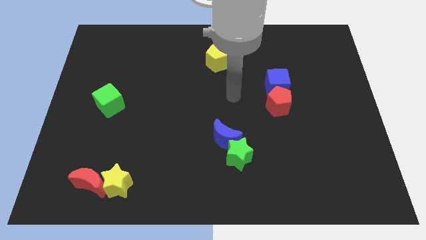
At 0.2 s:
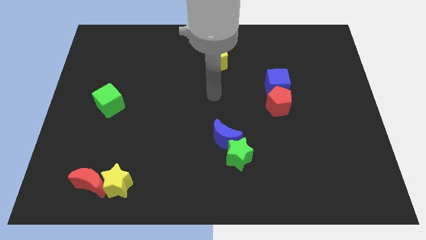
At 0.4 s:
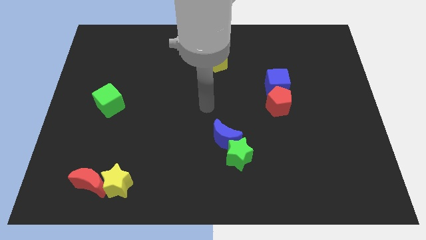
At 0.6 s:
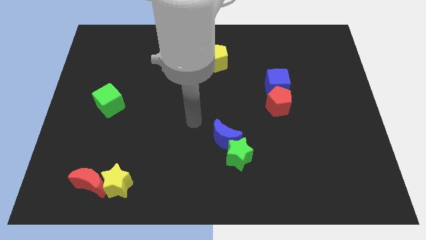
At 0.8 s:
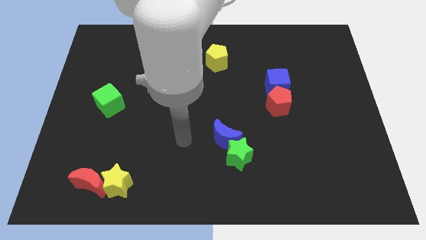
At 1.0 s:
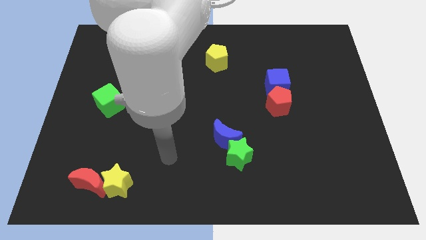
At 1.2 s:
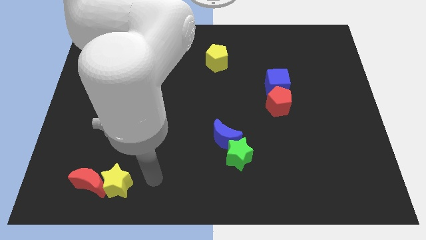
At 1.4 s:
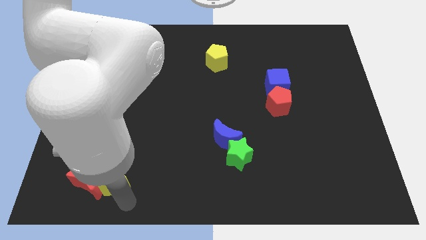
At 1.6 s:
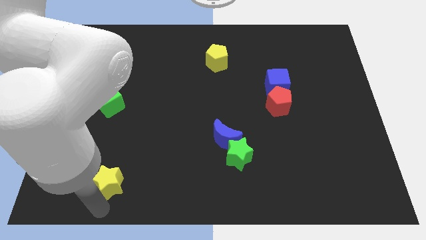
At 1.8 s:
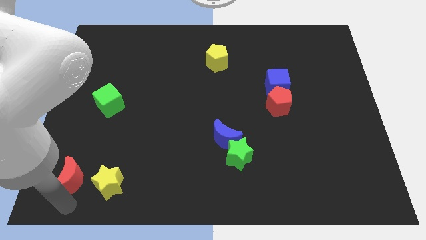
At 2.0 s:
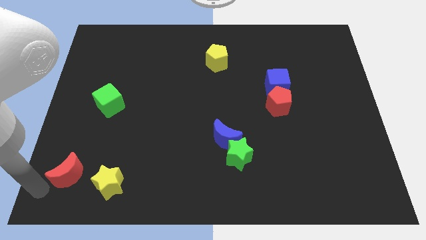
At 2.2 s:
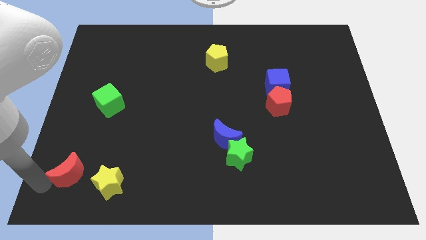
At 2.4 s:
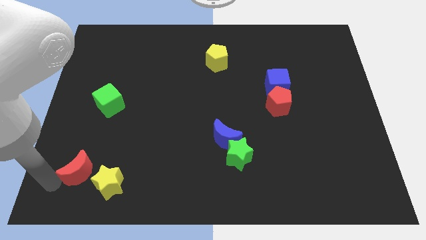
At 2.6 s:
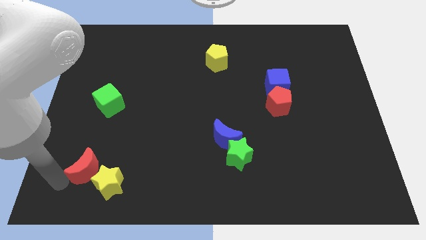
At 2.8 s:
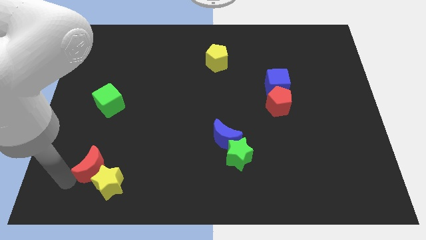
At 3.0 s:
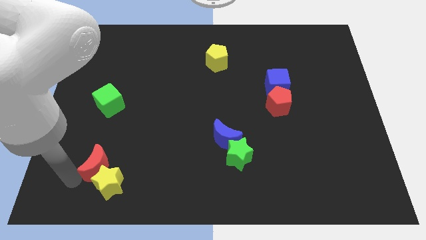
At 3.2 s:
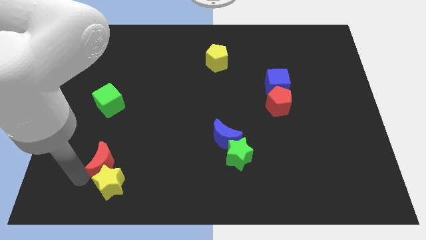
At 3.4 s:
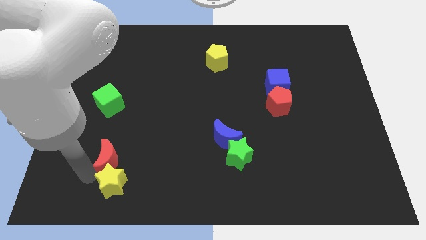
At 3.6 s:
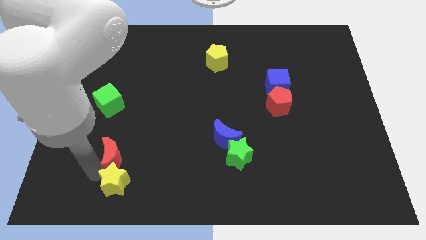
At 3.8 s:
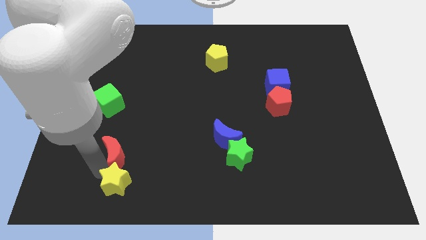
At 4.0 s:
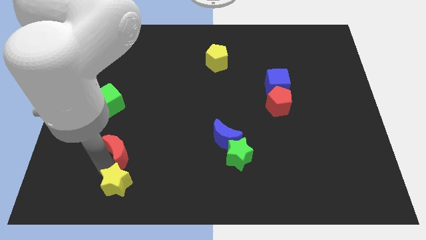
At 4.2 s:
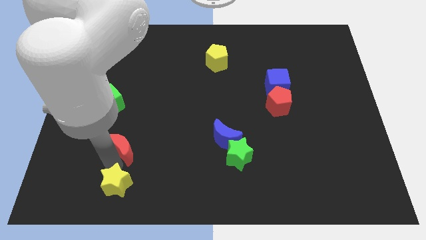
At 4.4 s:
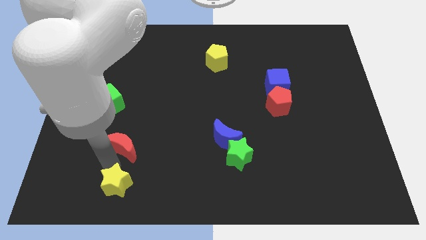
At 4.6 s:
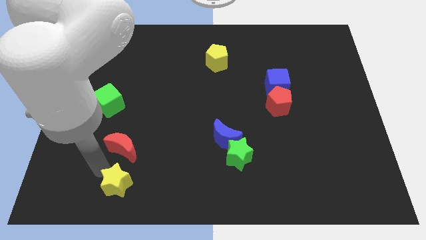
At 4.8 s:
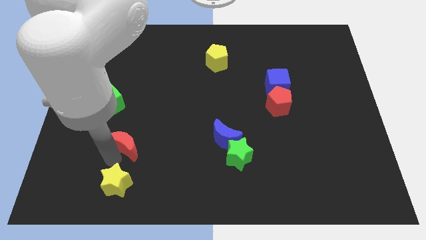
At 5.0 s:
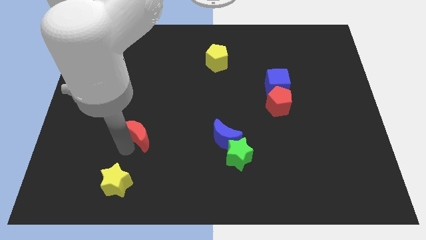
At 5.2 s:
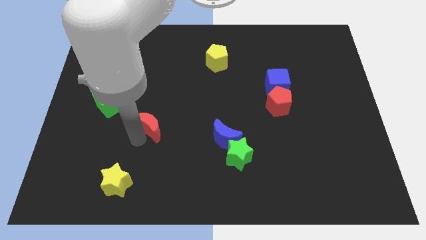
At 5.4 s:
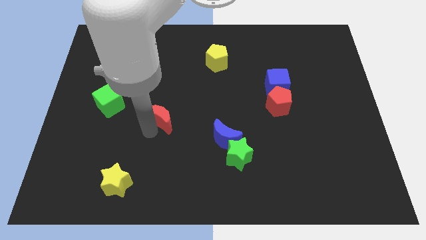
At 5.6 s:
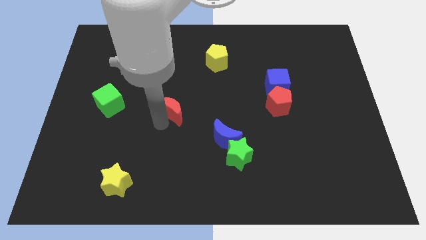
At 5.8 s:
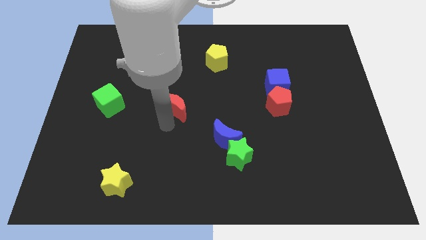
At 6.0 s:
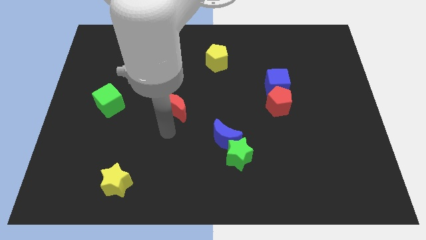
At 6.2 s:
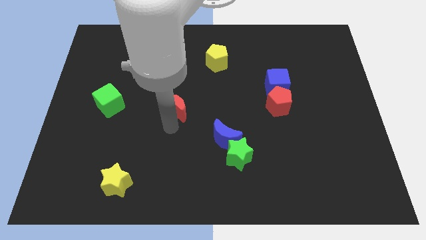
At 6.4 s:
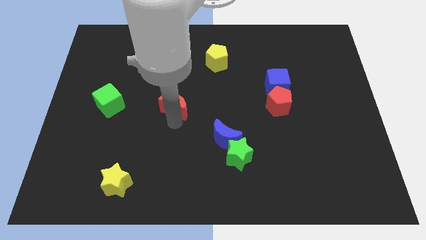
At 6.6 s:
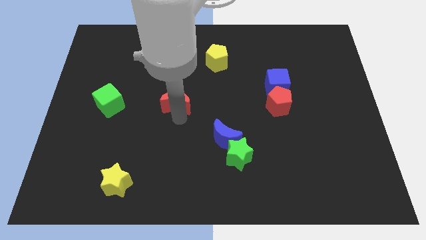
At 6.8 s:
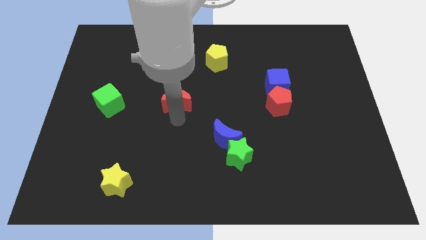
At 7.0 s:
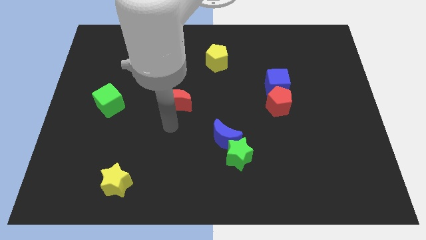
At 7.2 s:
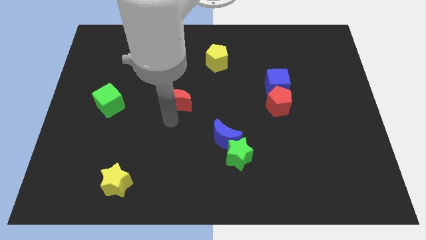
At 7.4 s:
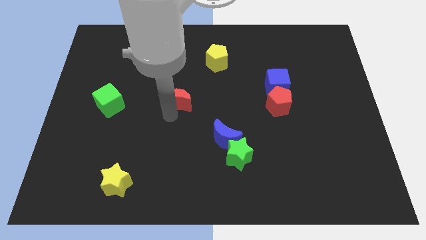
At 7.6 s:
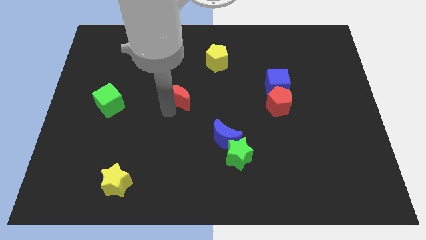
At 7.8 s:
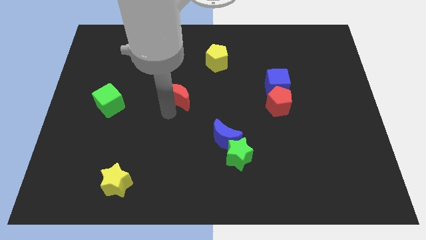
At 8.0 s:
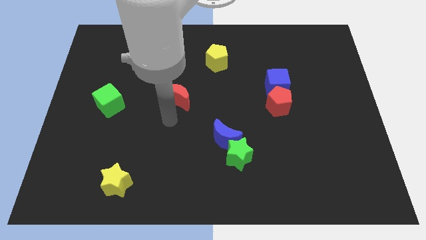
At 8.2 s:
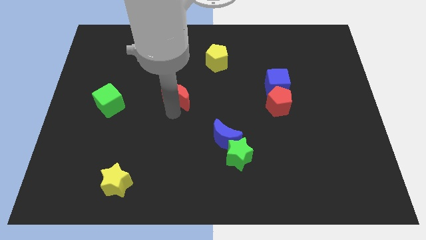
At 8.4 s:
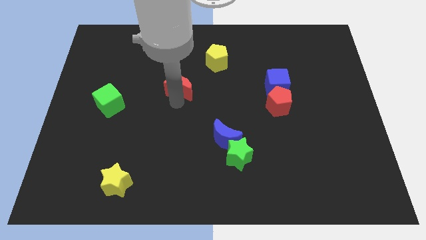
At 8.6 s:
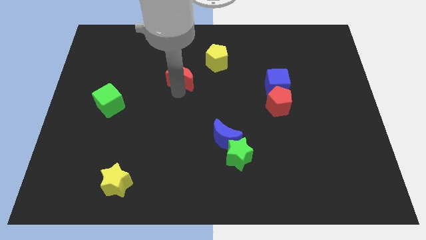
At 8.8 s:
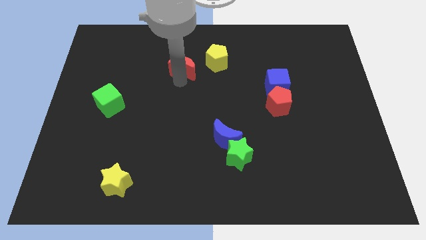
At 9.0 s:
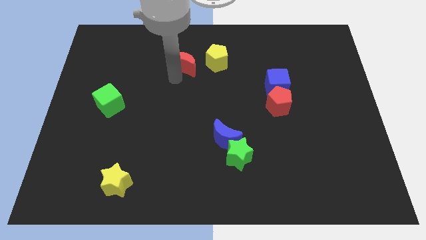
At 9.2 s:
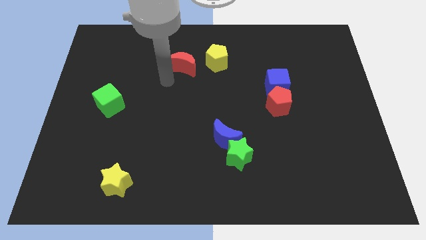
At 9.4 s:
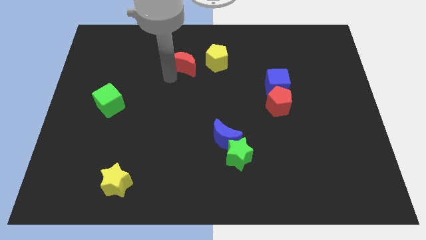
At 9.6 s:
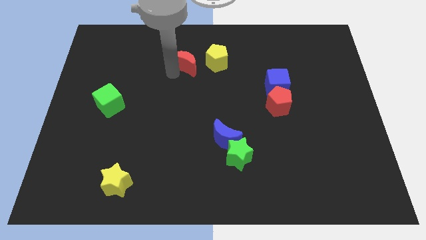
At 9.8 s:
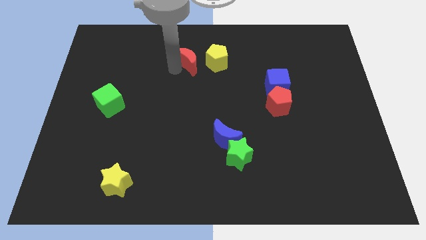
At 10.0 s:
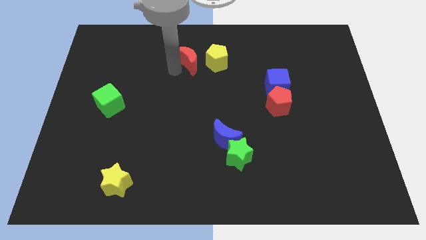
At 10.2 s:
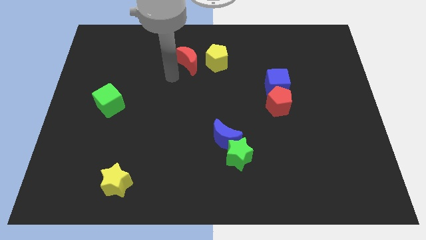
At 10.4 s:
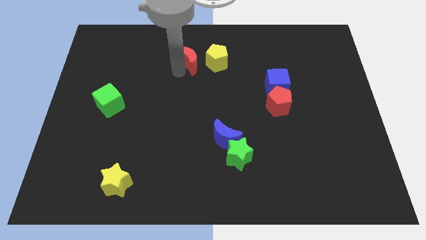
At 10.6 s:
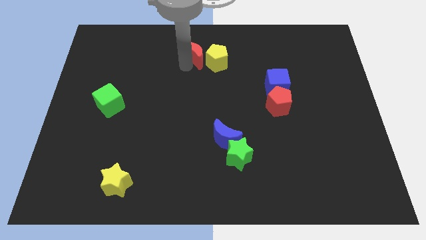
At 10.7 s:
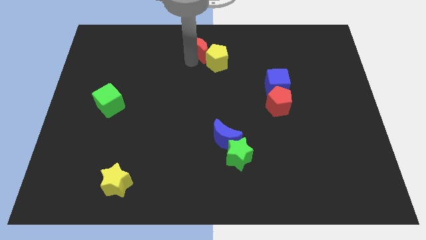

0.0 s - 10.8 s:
move the red moon to the top side

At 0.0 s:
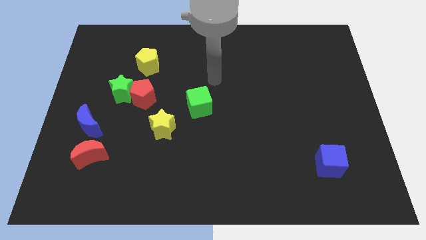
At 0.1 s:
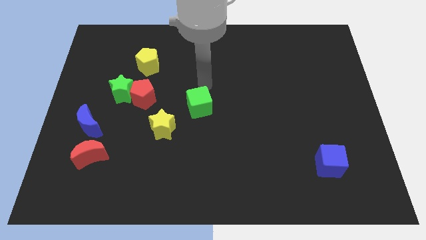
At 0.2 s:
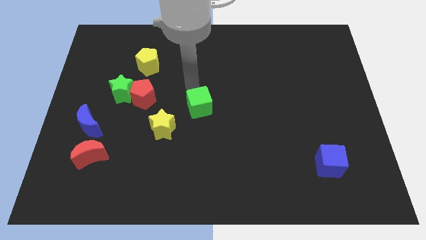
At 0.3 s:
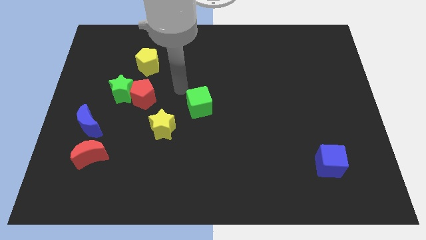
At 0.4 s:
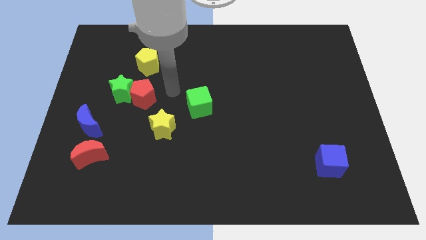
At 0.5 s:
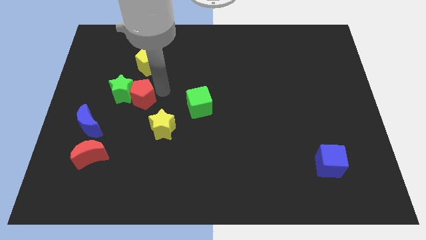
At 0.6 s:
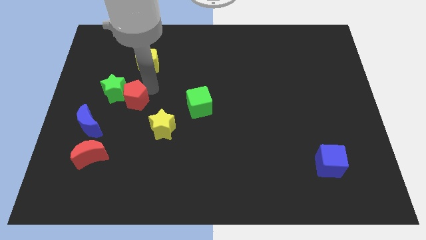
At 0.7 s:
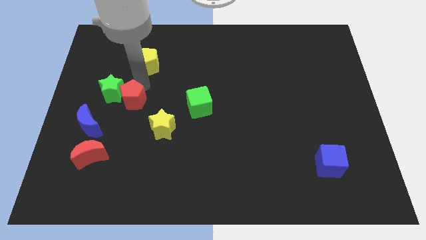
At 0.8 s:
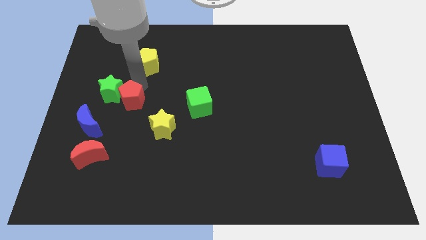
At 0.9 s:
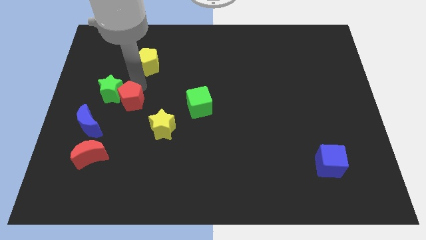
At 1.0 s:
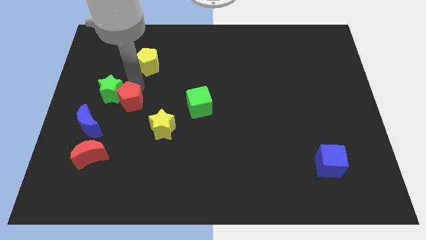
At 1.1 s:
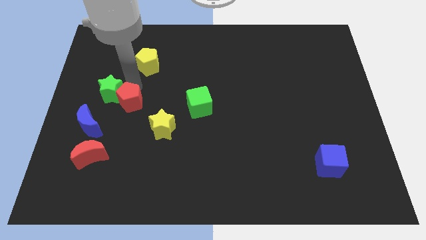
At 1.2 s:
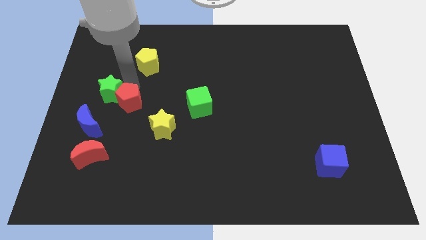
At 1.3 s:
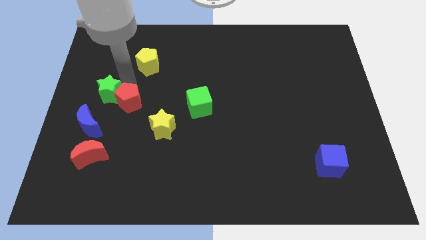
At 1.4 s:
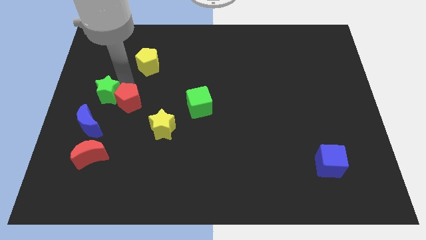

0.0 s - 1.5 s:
move the green star to the left side
